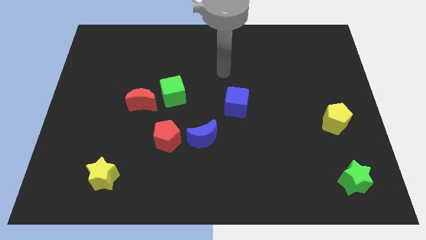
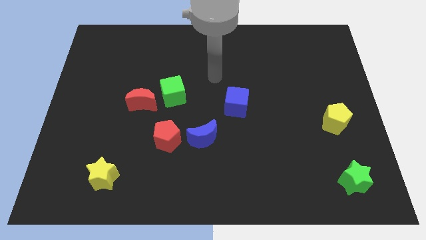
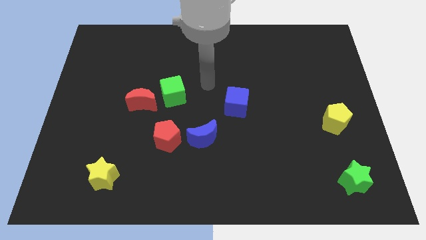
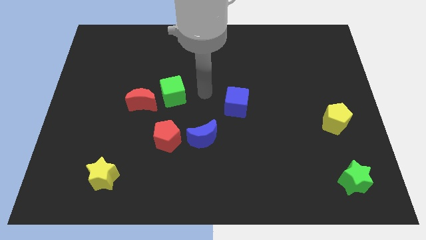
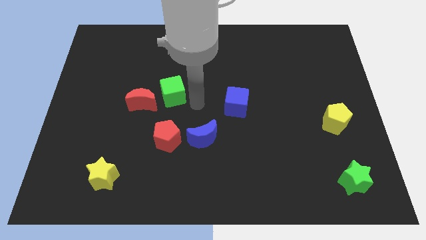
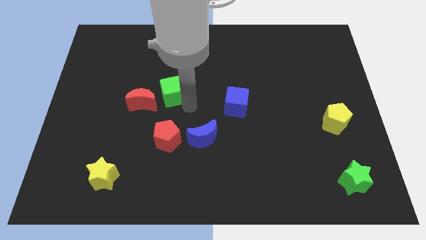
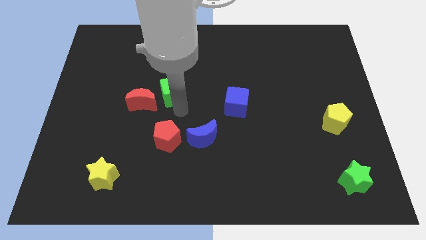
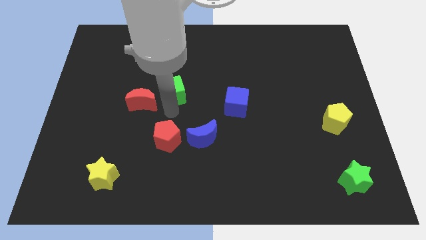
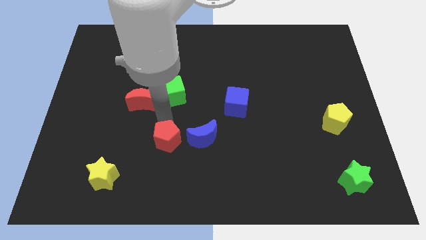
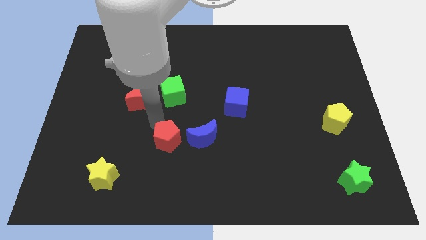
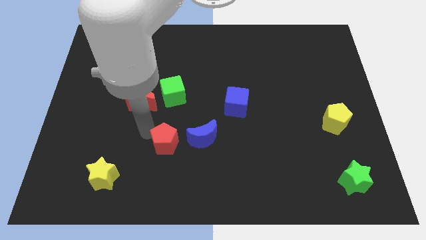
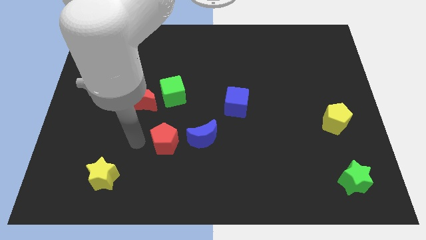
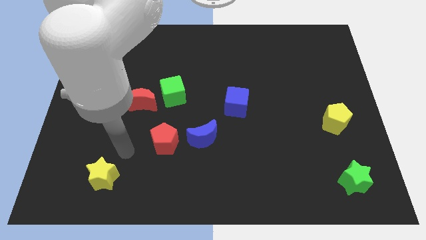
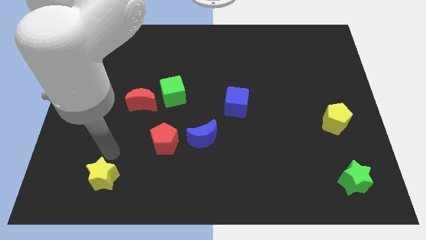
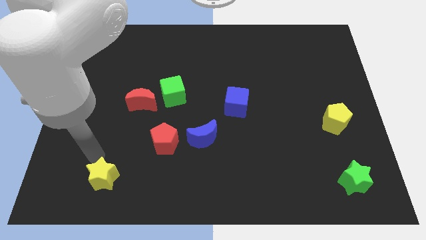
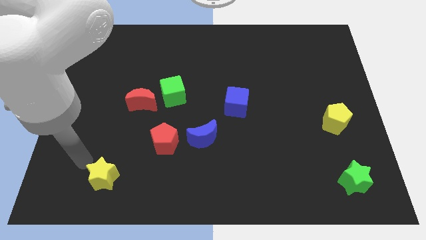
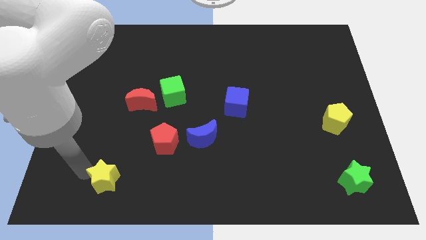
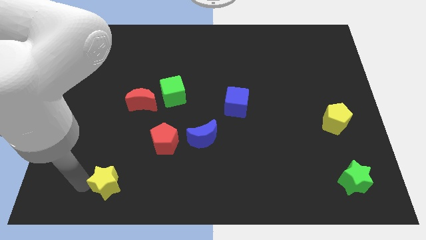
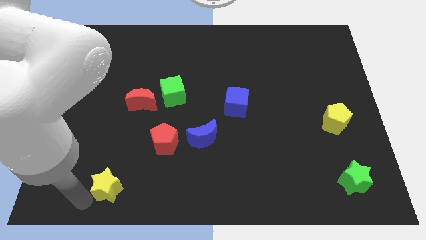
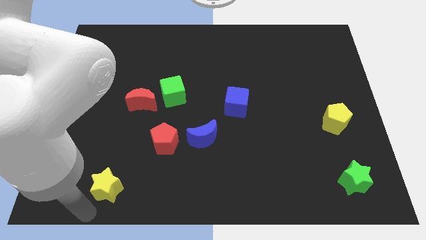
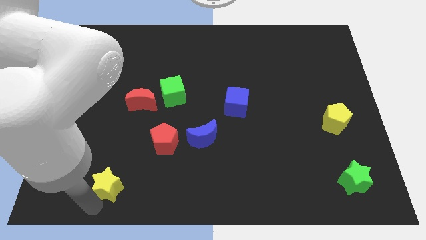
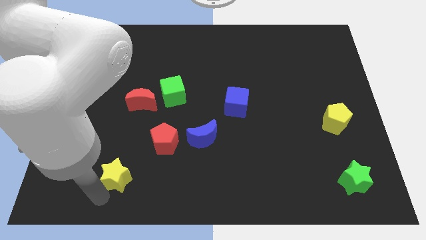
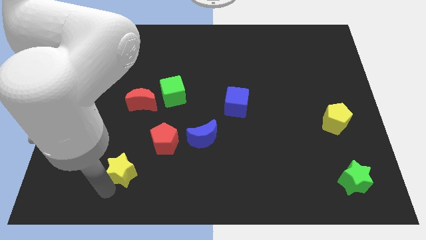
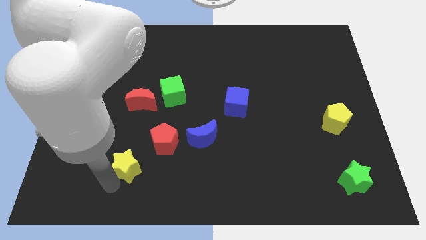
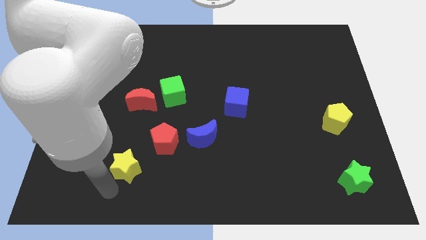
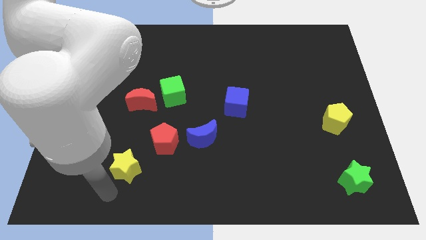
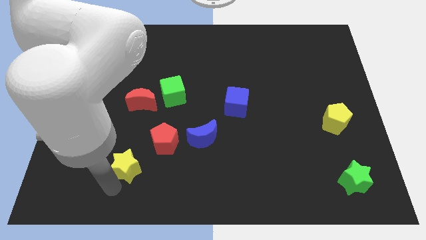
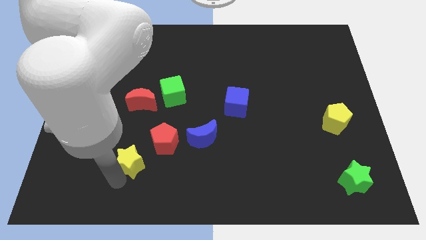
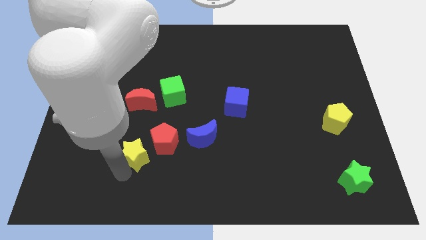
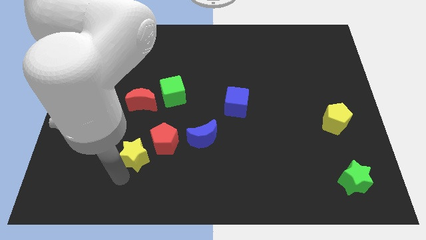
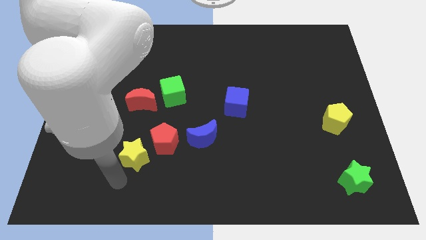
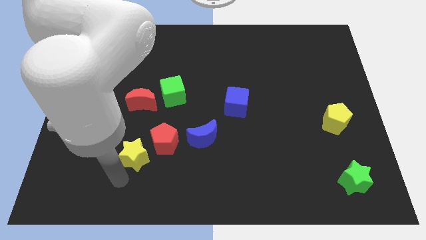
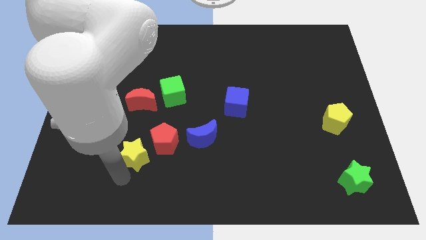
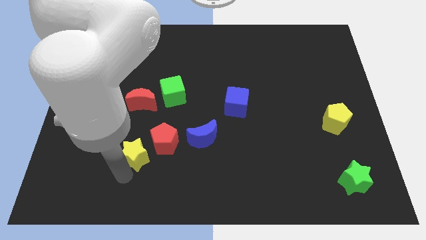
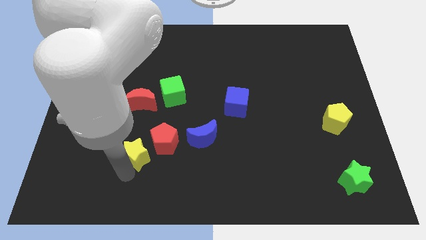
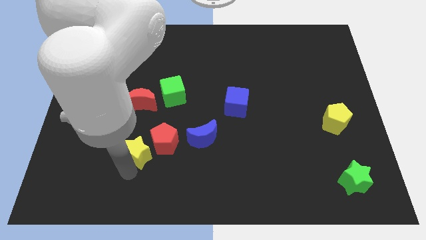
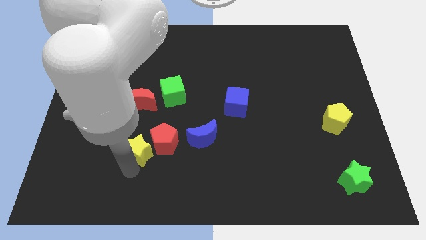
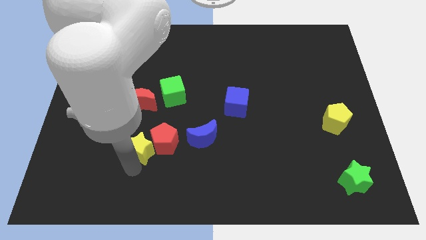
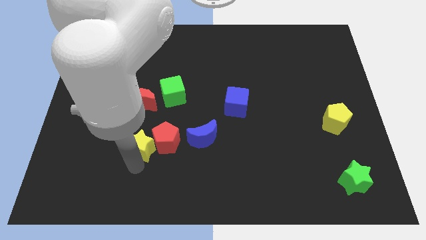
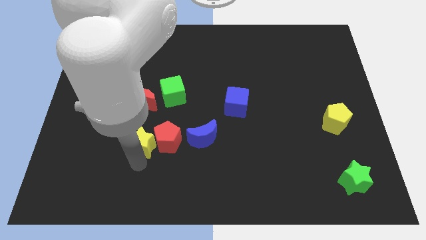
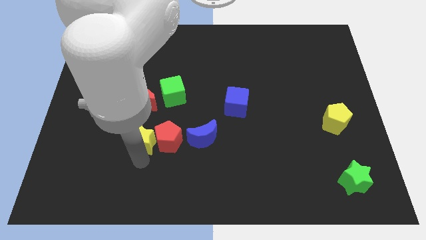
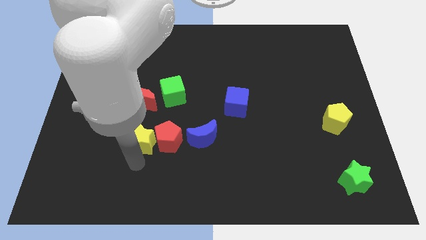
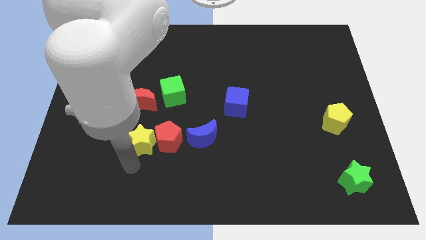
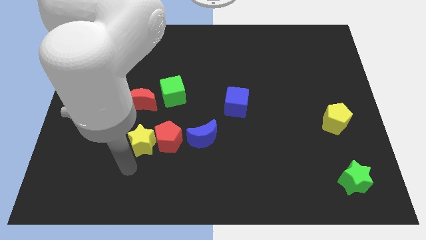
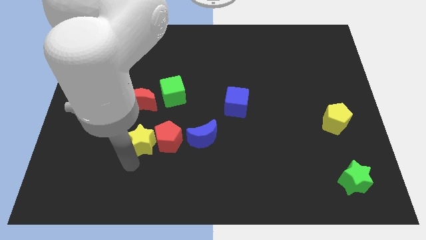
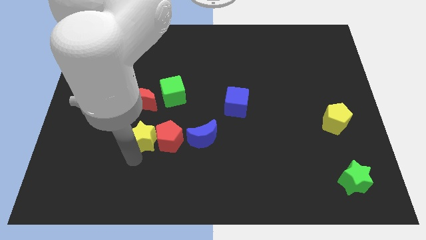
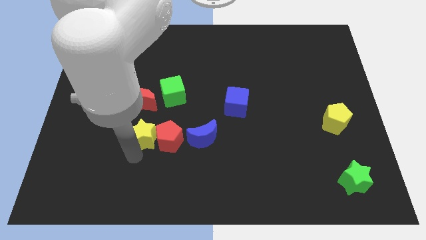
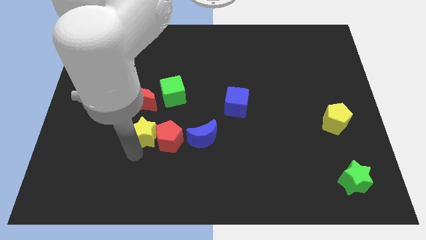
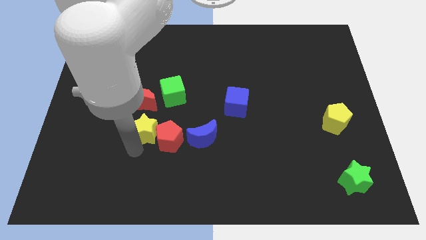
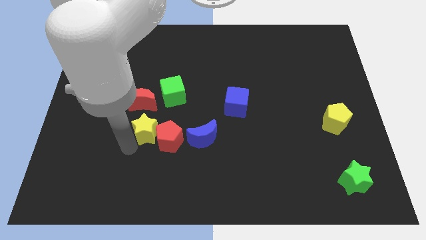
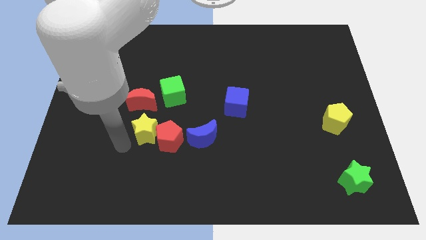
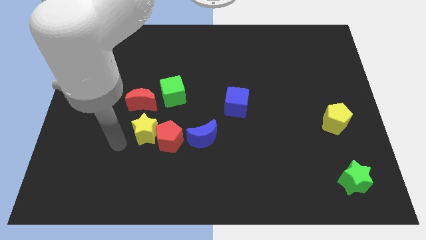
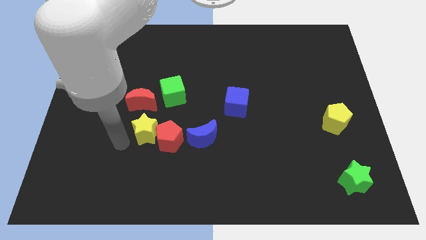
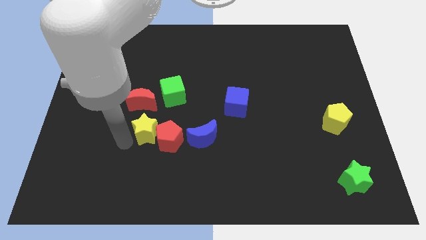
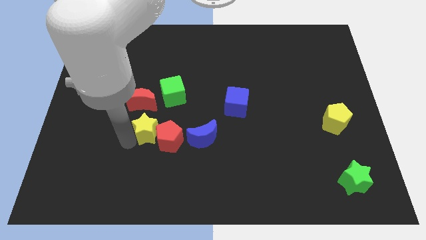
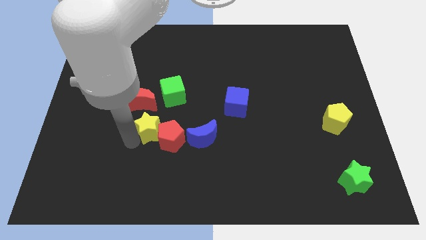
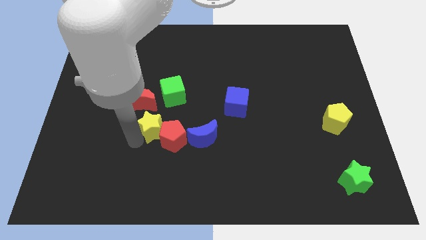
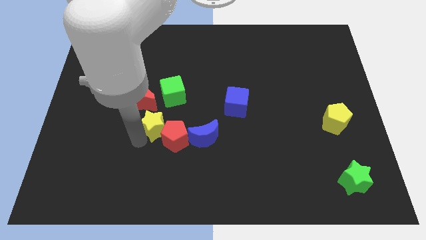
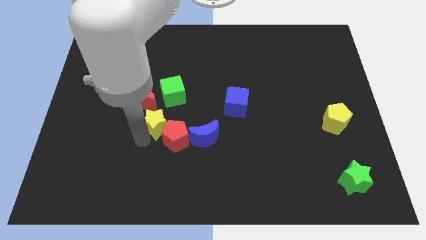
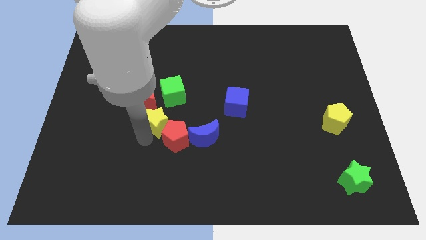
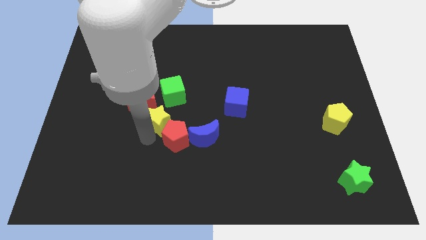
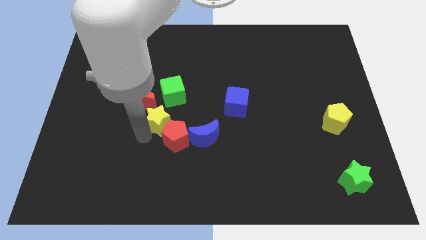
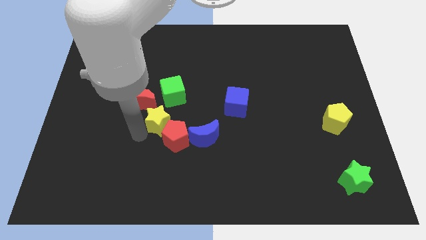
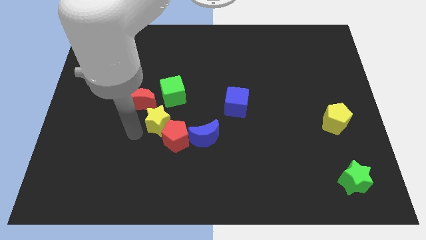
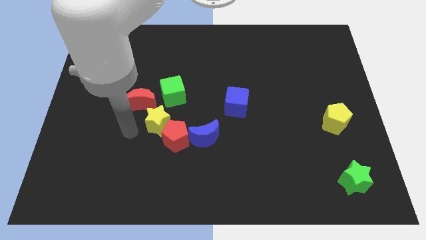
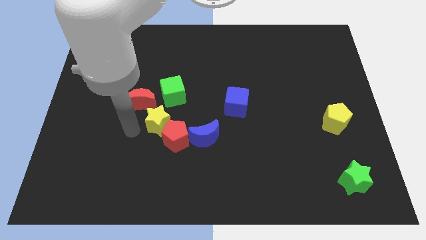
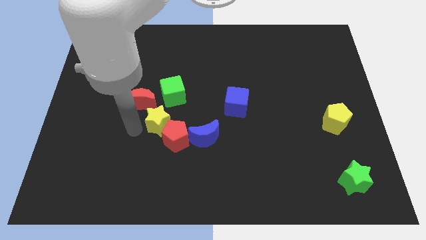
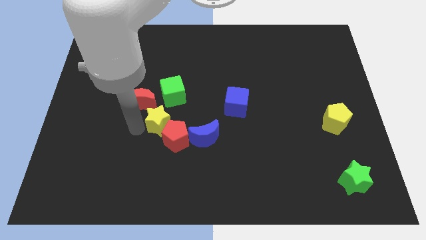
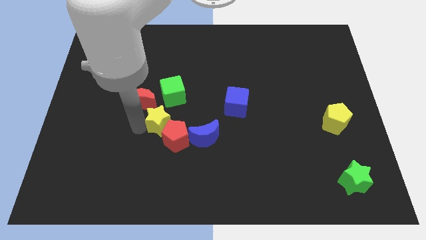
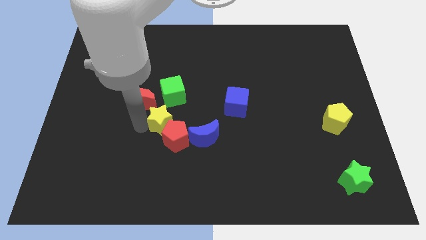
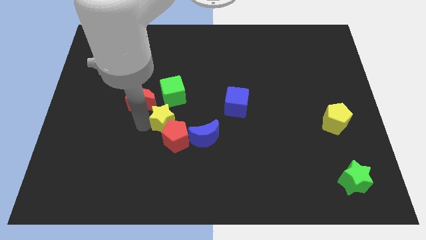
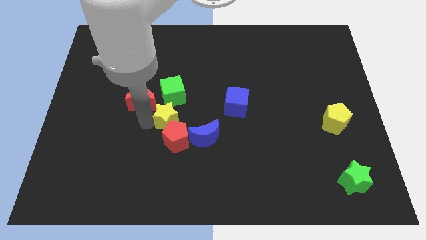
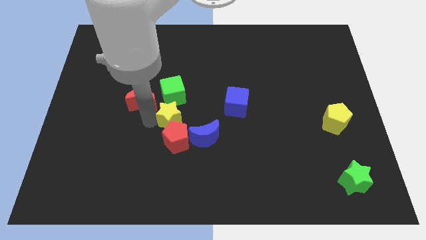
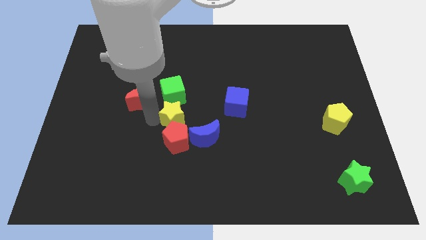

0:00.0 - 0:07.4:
move the yellow star to the bottom right of the green cube
